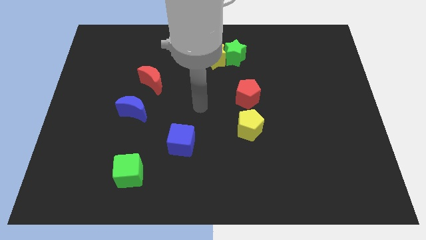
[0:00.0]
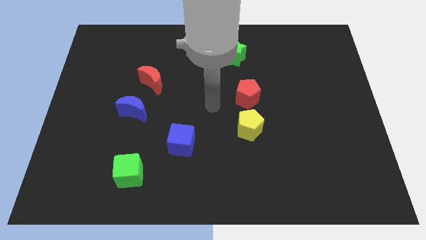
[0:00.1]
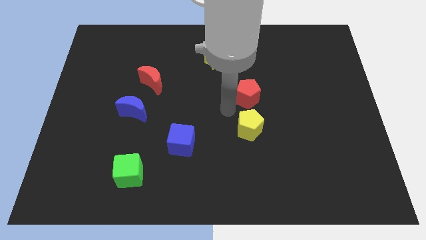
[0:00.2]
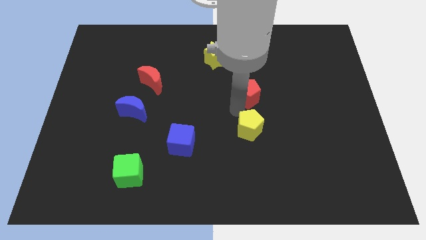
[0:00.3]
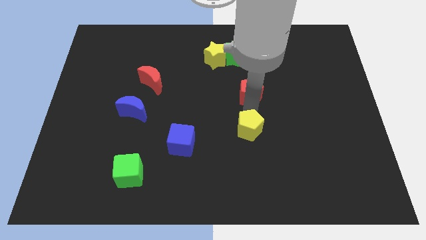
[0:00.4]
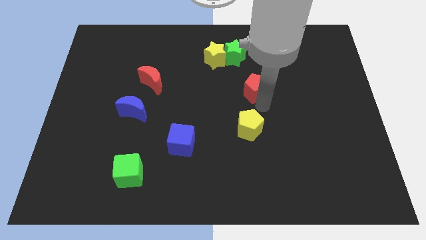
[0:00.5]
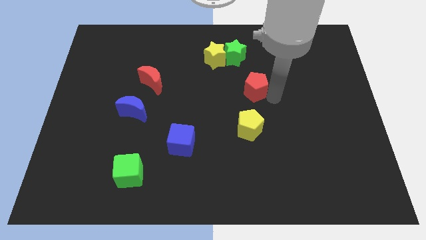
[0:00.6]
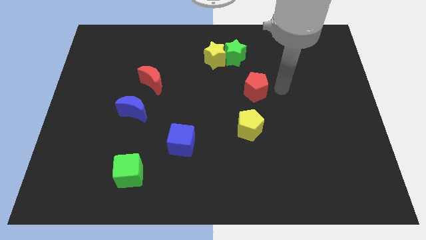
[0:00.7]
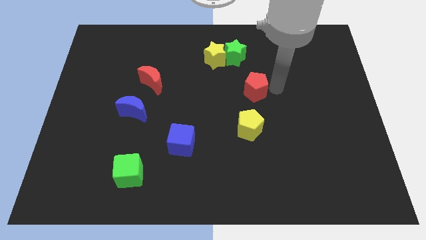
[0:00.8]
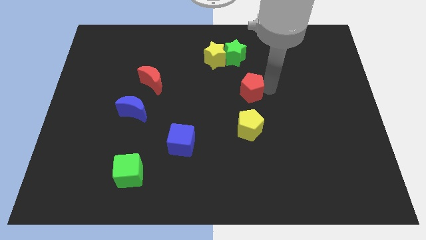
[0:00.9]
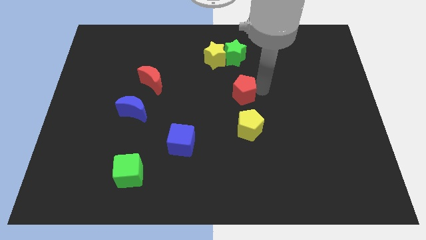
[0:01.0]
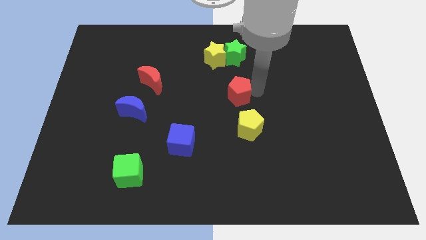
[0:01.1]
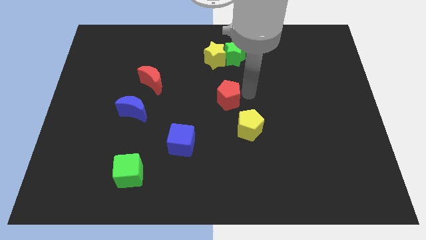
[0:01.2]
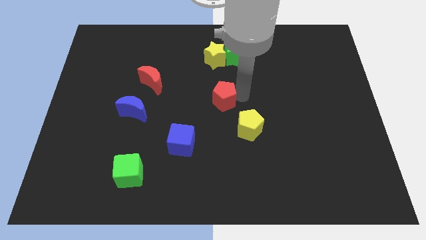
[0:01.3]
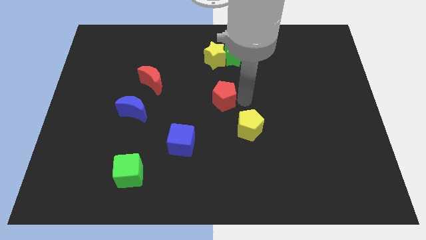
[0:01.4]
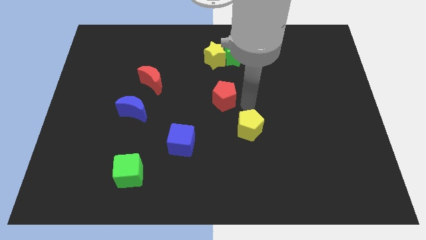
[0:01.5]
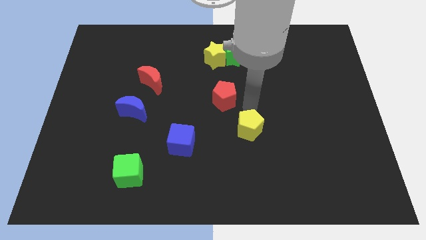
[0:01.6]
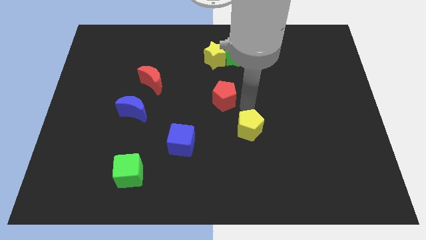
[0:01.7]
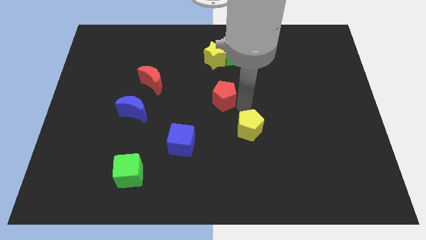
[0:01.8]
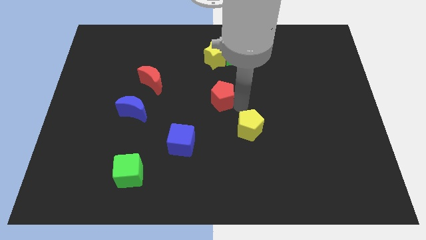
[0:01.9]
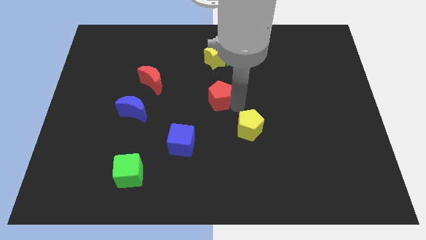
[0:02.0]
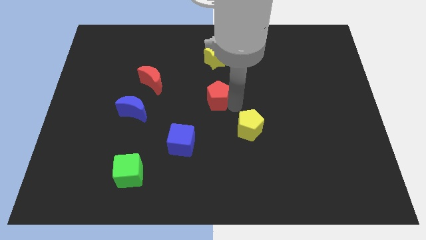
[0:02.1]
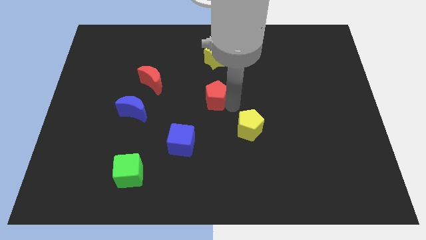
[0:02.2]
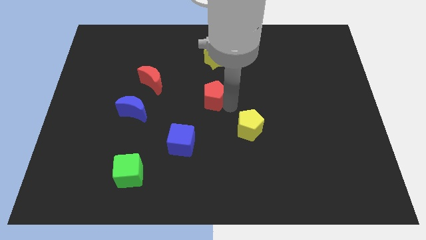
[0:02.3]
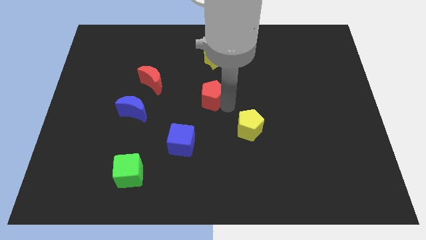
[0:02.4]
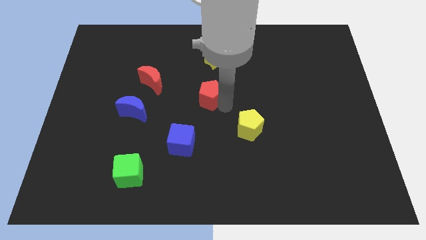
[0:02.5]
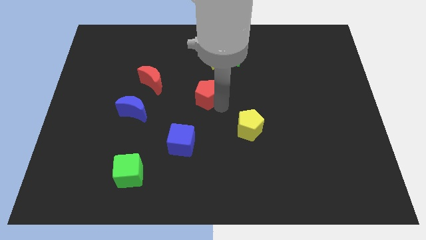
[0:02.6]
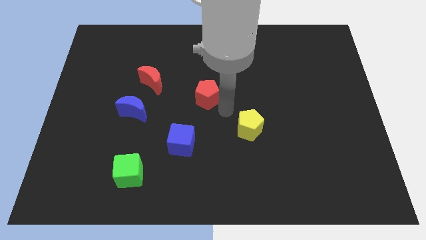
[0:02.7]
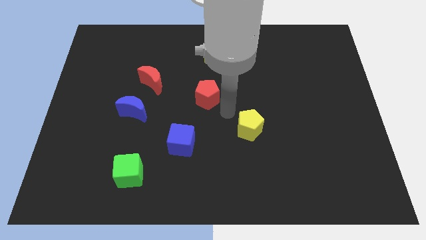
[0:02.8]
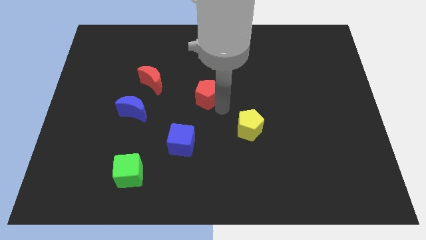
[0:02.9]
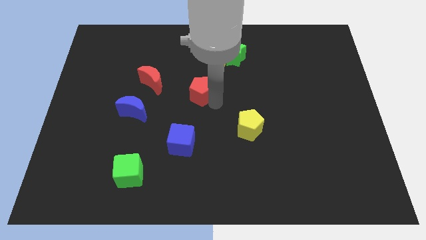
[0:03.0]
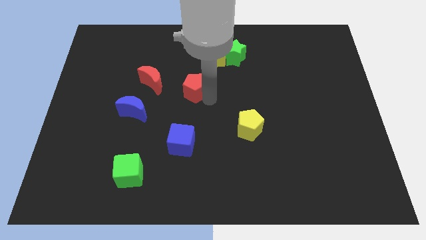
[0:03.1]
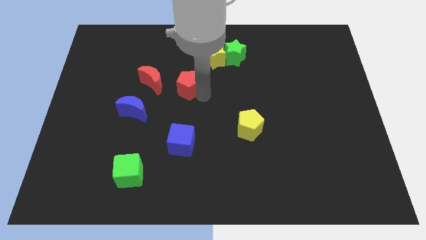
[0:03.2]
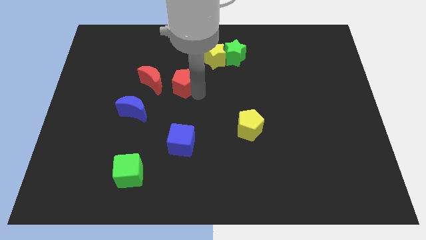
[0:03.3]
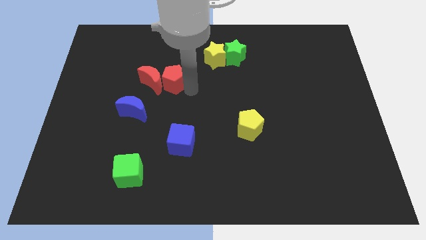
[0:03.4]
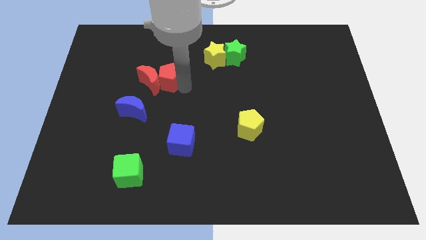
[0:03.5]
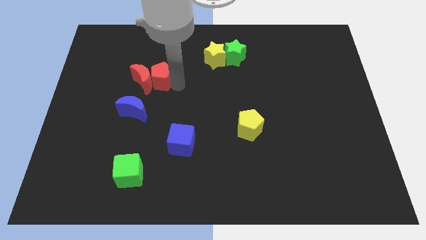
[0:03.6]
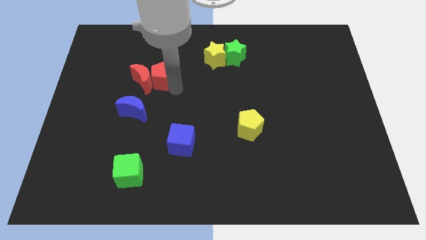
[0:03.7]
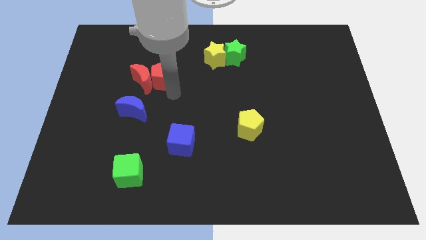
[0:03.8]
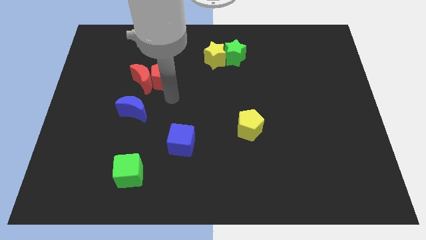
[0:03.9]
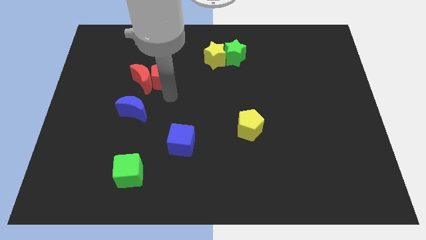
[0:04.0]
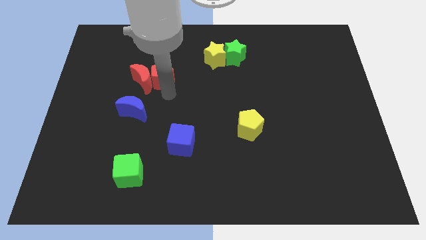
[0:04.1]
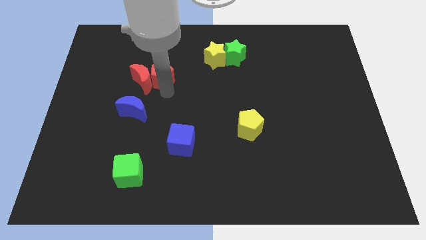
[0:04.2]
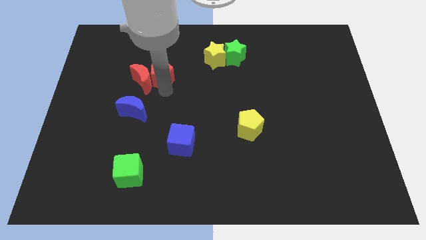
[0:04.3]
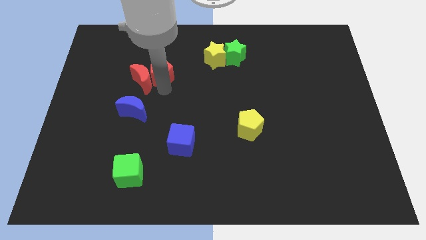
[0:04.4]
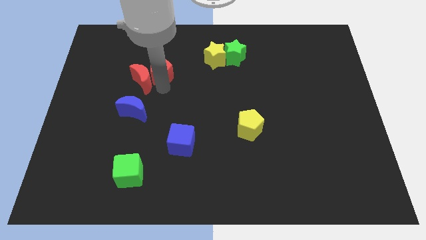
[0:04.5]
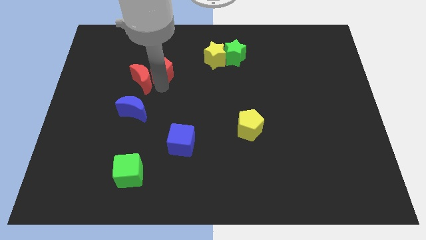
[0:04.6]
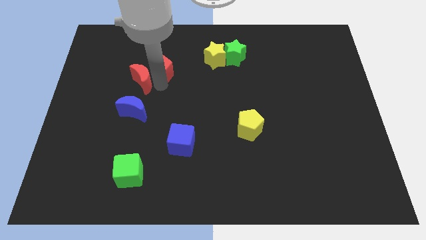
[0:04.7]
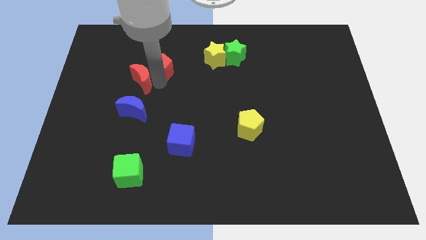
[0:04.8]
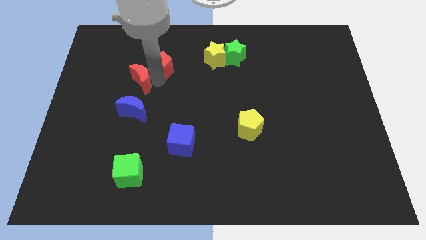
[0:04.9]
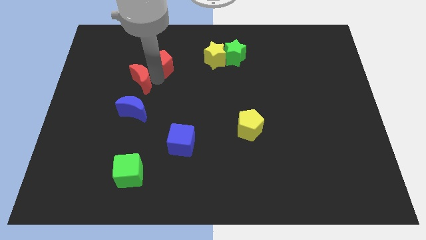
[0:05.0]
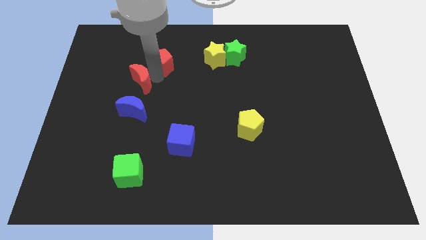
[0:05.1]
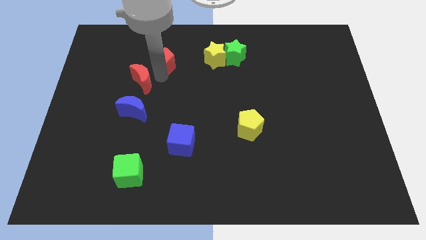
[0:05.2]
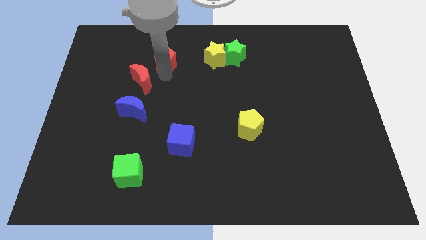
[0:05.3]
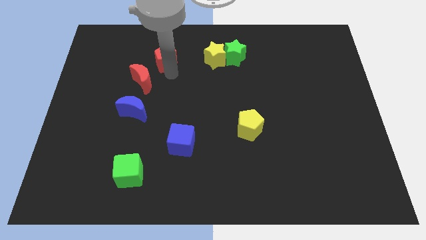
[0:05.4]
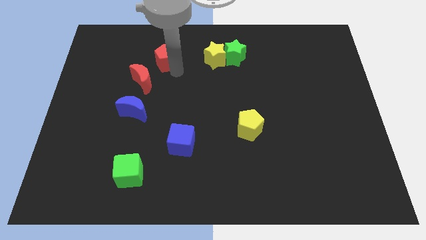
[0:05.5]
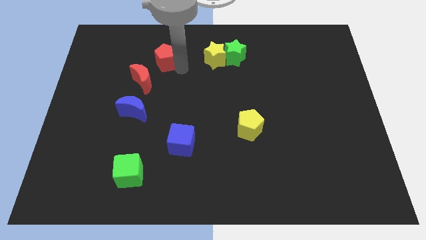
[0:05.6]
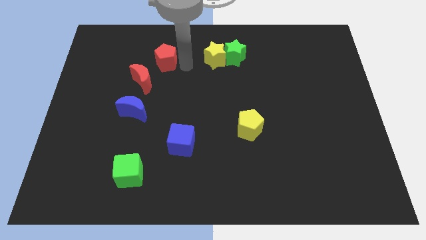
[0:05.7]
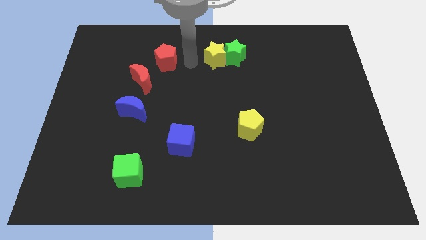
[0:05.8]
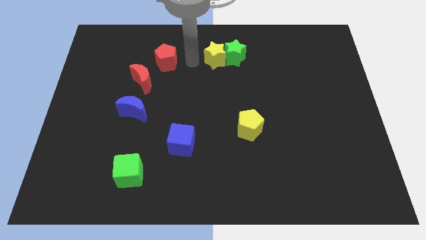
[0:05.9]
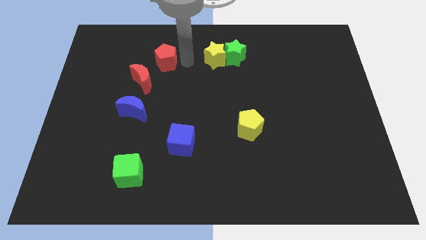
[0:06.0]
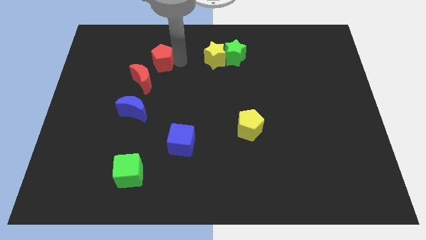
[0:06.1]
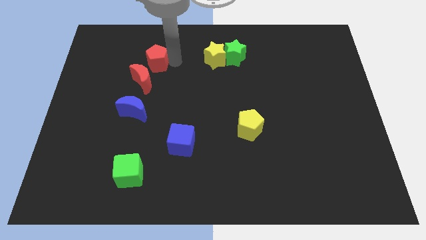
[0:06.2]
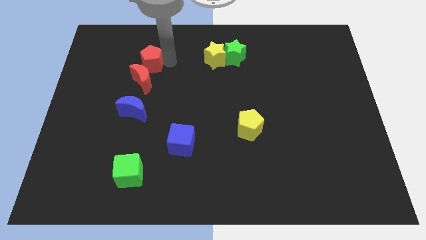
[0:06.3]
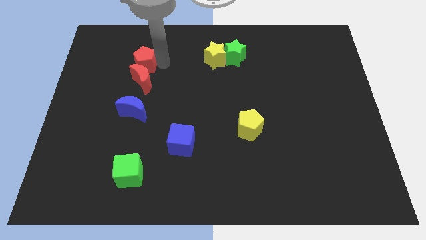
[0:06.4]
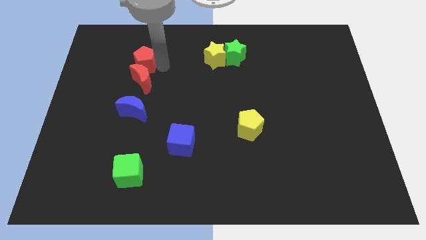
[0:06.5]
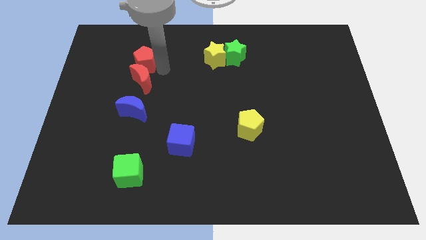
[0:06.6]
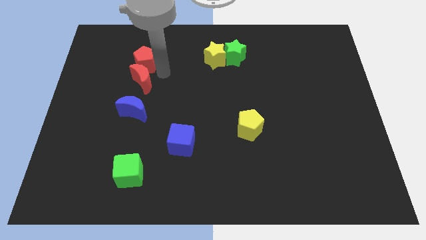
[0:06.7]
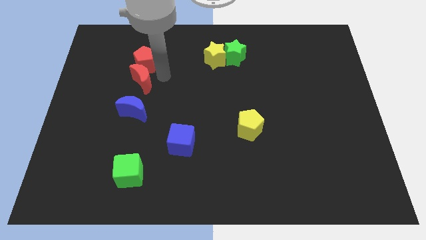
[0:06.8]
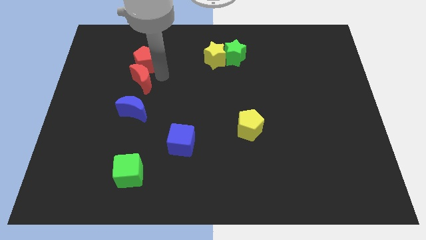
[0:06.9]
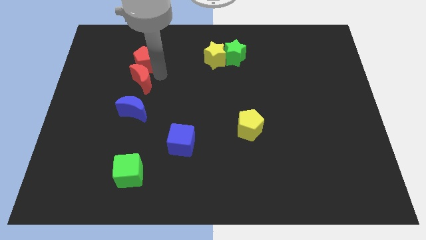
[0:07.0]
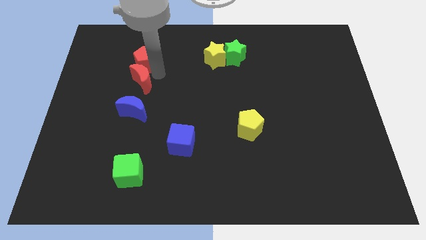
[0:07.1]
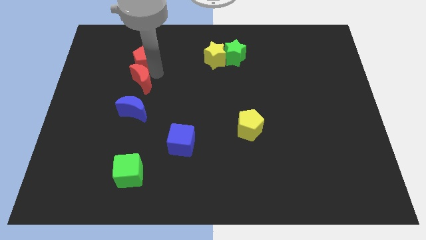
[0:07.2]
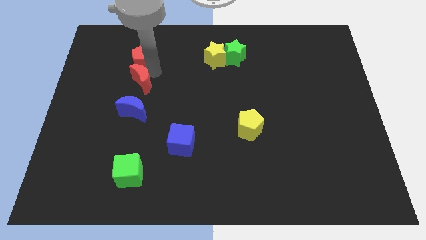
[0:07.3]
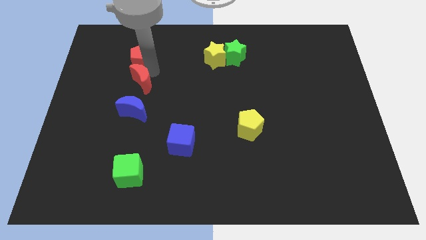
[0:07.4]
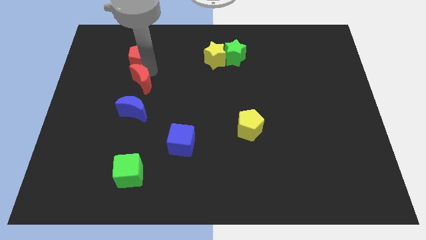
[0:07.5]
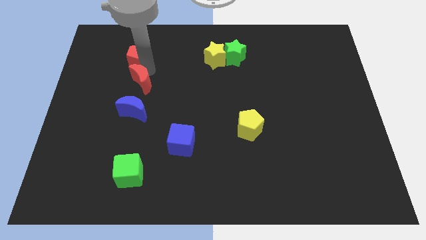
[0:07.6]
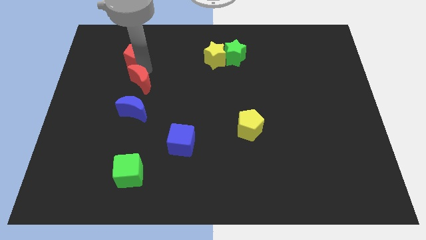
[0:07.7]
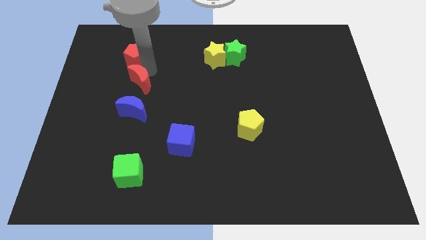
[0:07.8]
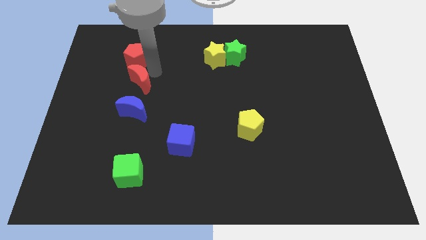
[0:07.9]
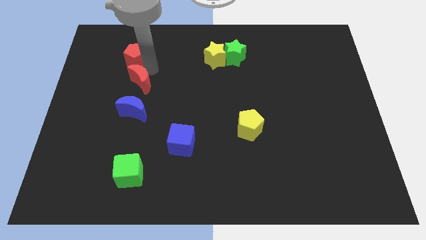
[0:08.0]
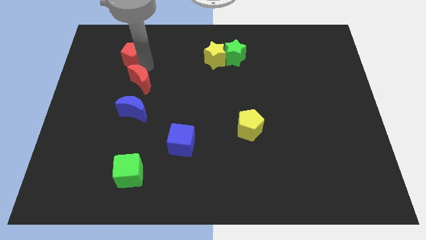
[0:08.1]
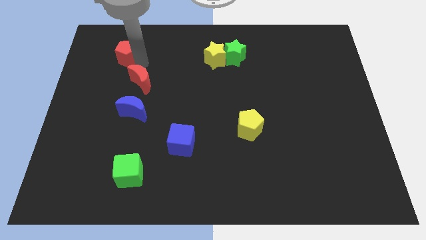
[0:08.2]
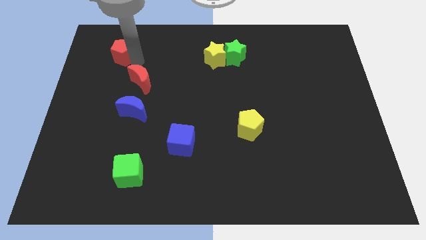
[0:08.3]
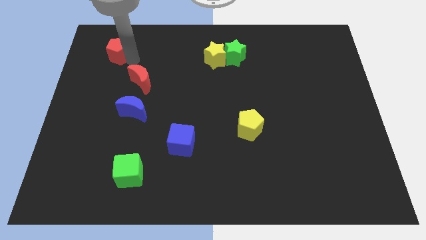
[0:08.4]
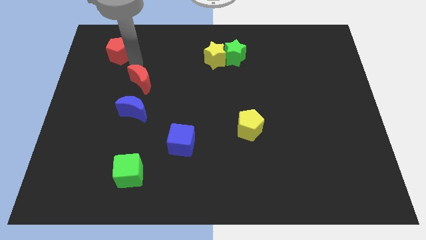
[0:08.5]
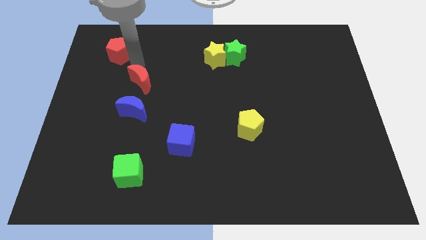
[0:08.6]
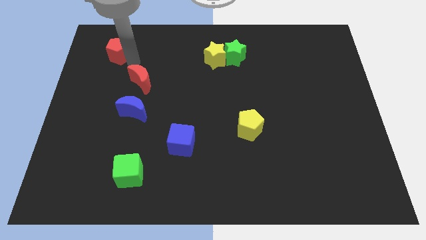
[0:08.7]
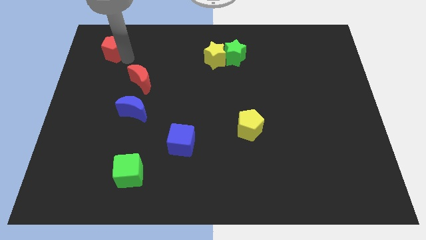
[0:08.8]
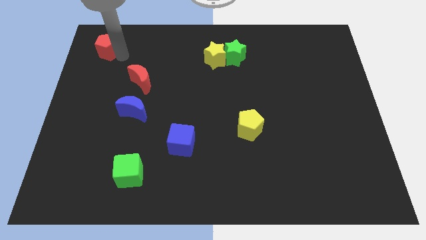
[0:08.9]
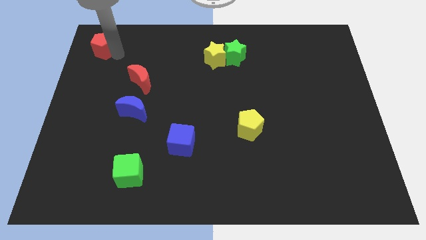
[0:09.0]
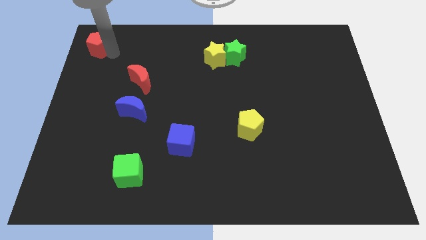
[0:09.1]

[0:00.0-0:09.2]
put the red pentagon to the top left corner
